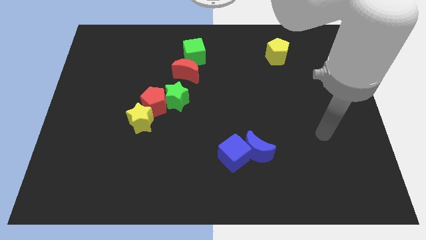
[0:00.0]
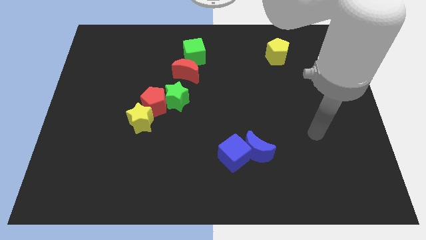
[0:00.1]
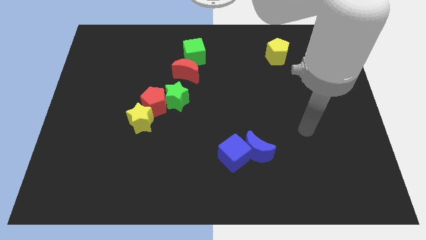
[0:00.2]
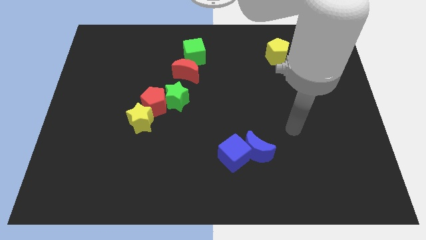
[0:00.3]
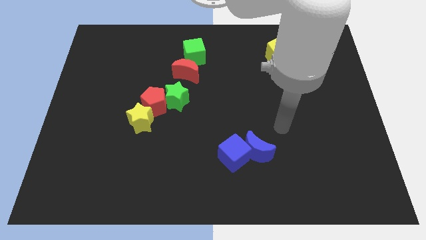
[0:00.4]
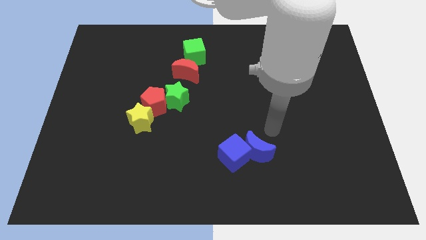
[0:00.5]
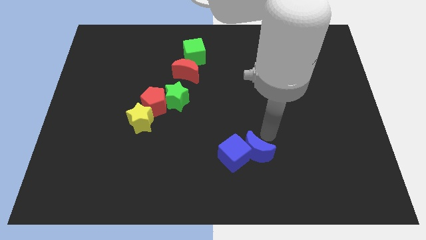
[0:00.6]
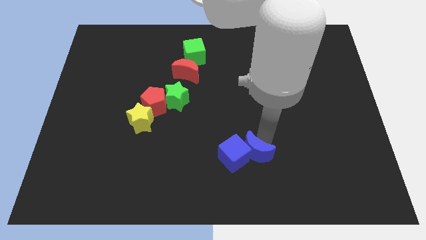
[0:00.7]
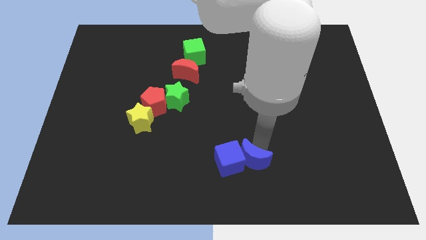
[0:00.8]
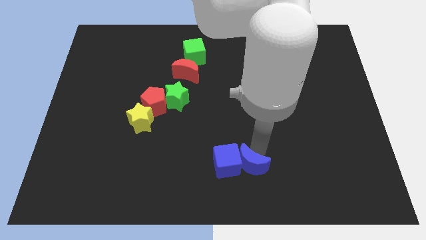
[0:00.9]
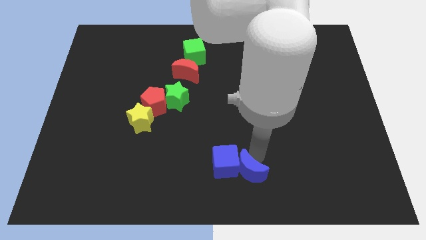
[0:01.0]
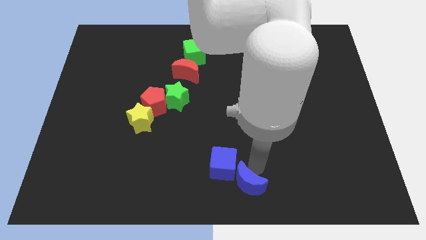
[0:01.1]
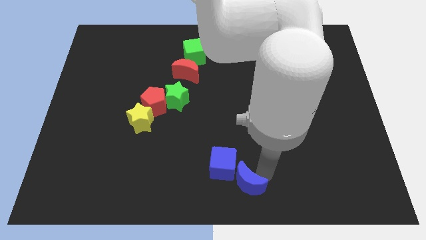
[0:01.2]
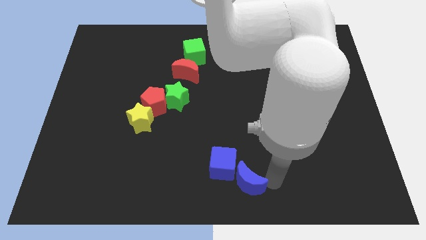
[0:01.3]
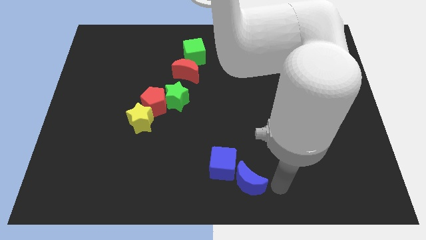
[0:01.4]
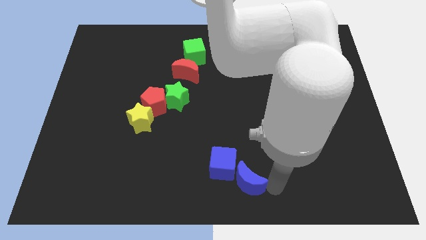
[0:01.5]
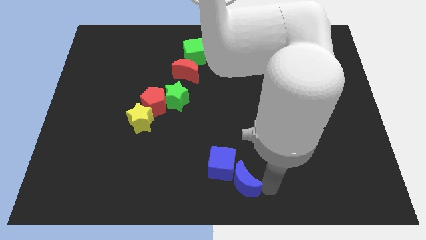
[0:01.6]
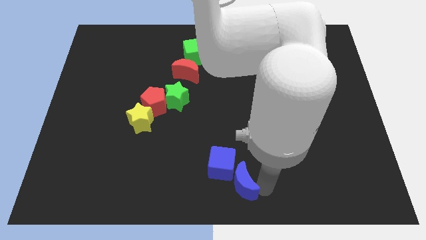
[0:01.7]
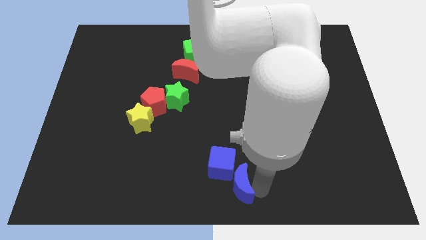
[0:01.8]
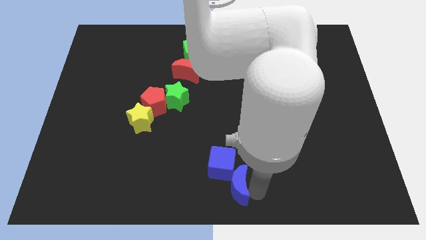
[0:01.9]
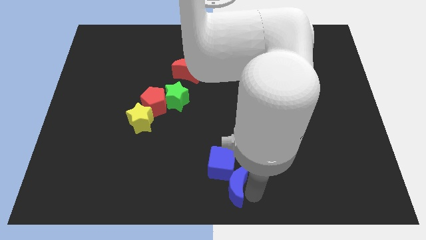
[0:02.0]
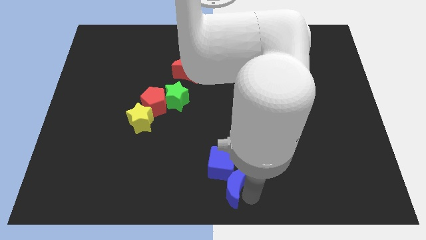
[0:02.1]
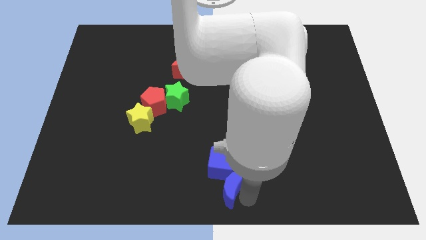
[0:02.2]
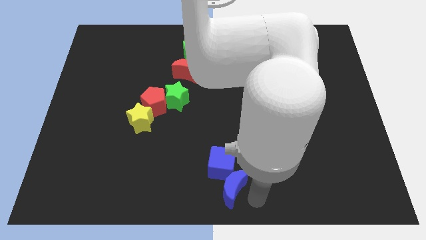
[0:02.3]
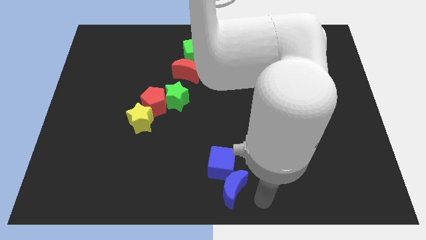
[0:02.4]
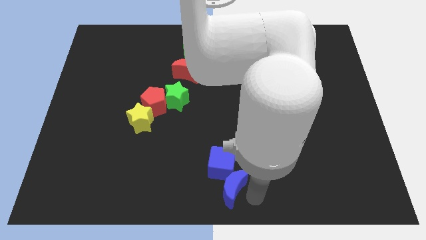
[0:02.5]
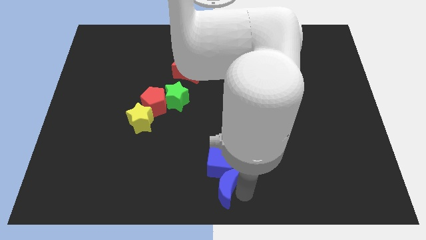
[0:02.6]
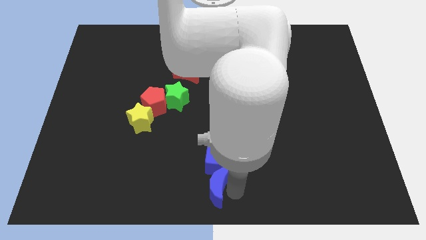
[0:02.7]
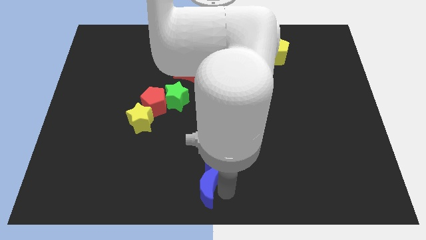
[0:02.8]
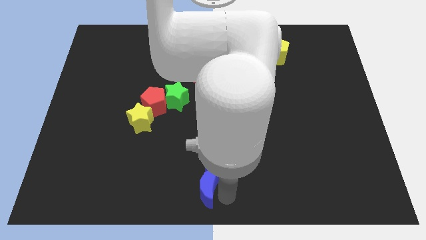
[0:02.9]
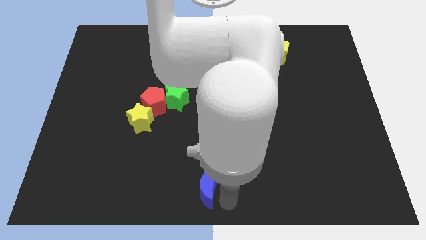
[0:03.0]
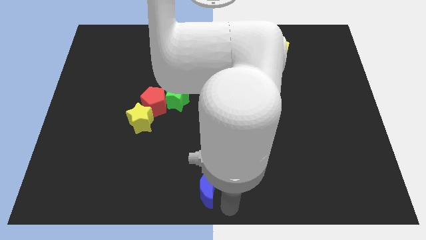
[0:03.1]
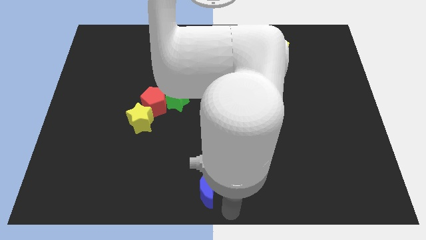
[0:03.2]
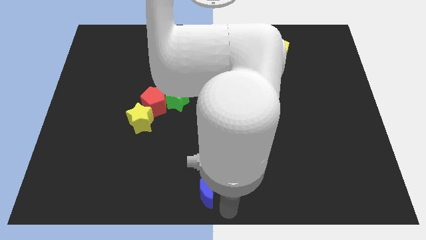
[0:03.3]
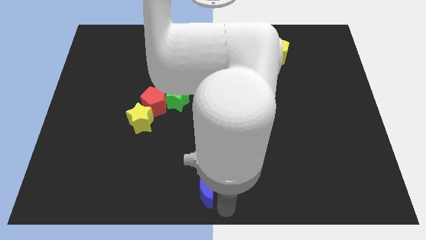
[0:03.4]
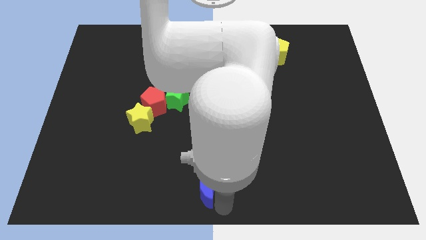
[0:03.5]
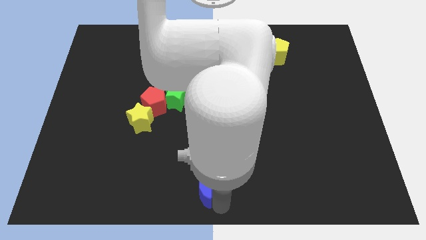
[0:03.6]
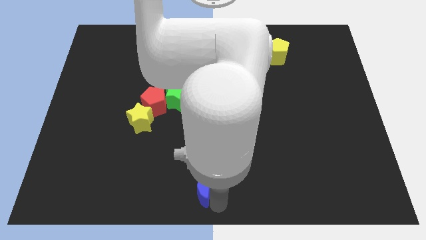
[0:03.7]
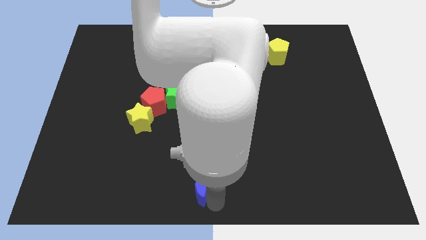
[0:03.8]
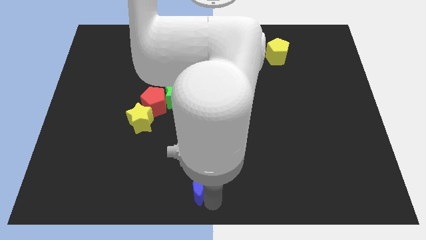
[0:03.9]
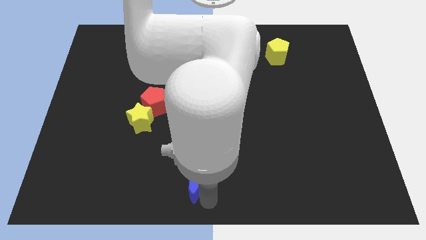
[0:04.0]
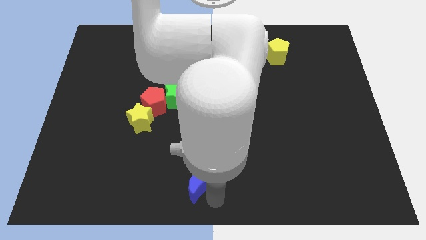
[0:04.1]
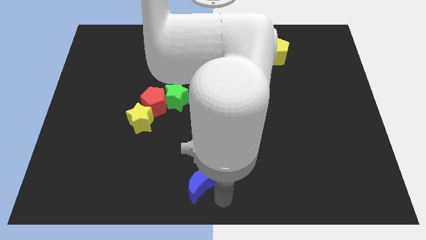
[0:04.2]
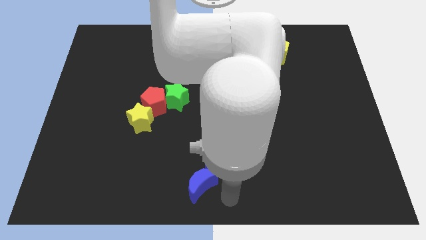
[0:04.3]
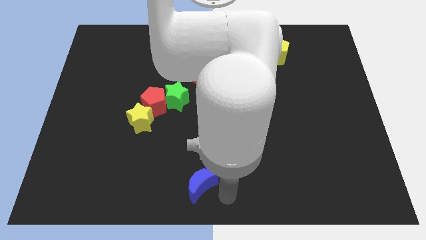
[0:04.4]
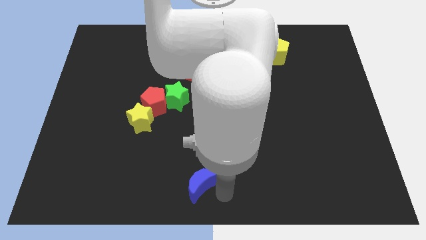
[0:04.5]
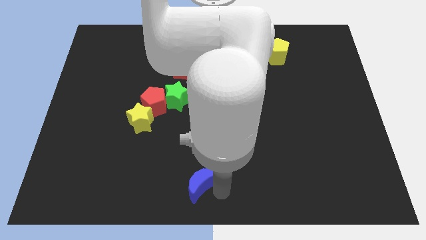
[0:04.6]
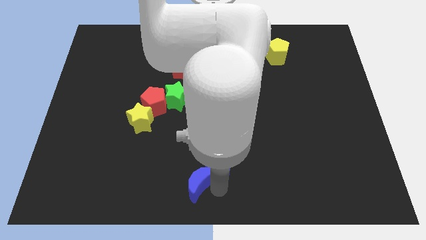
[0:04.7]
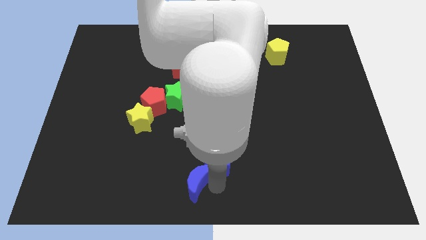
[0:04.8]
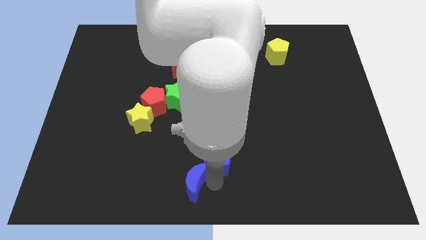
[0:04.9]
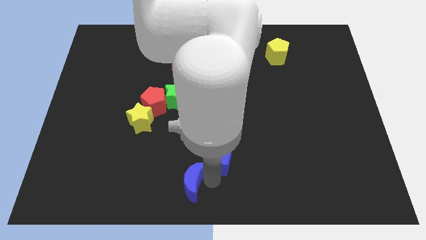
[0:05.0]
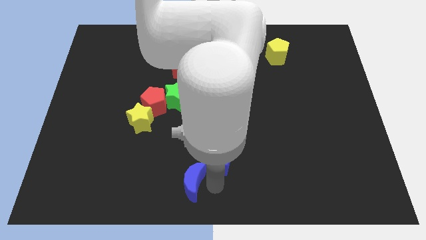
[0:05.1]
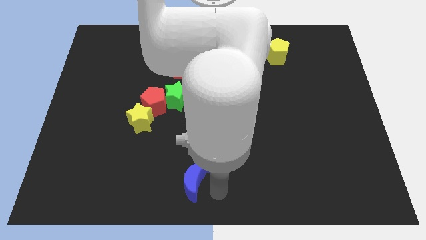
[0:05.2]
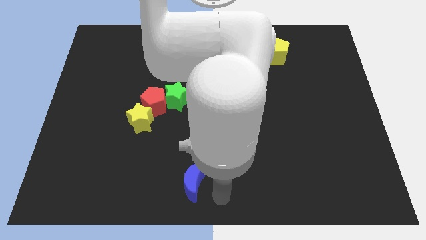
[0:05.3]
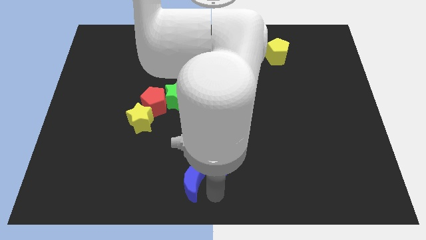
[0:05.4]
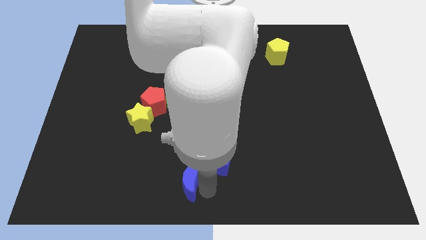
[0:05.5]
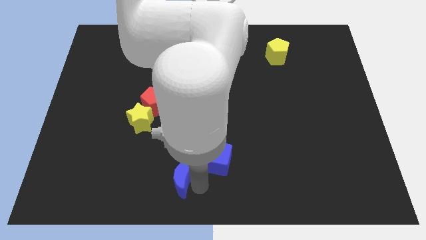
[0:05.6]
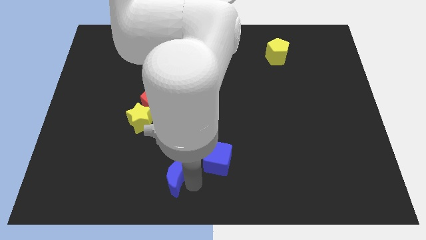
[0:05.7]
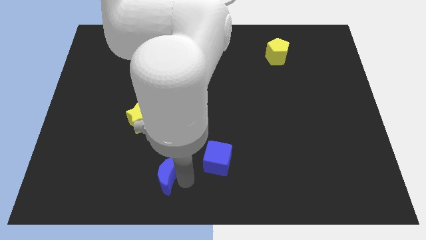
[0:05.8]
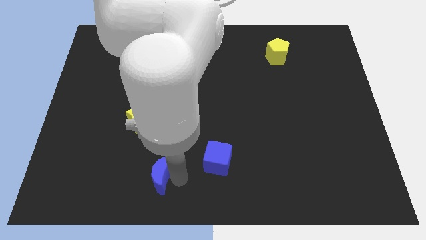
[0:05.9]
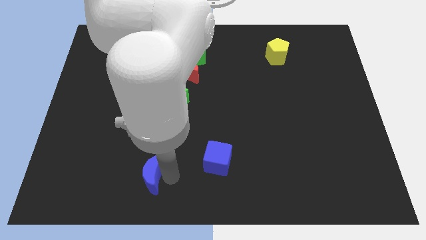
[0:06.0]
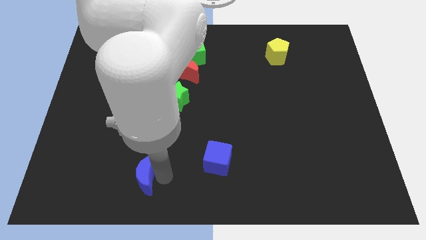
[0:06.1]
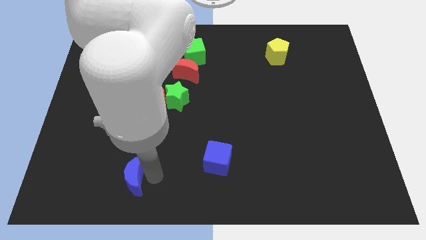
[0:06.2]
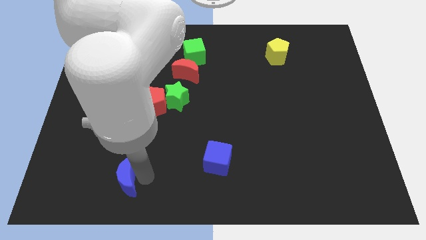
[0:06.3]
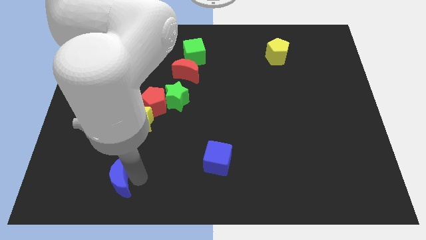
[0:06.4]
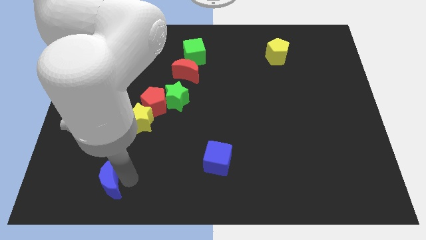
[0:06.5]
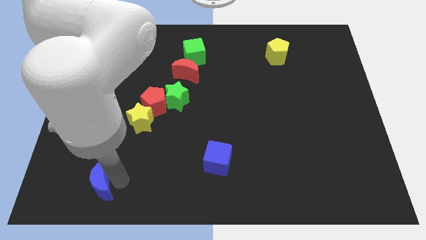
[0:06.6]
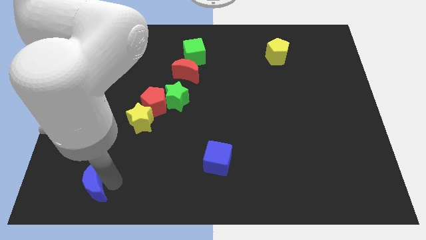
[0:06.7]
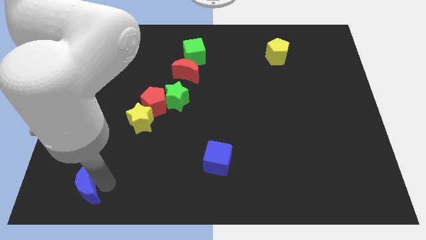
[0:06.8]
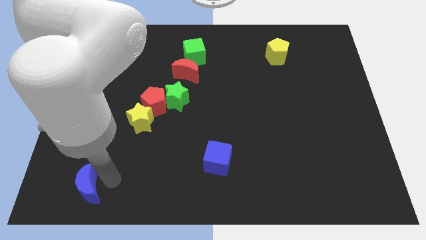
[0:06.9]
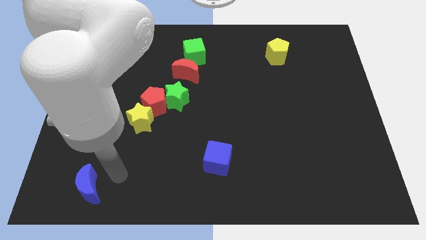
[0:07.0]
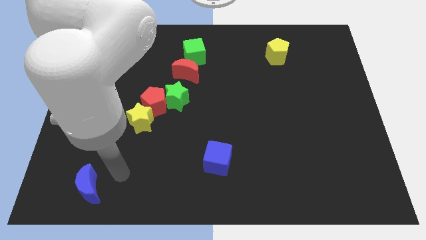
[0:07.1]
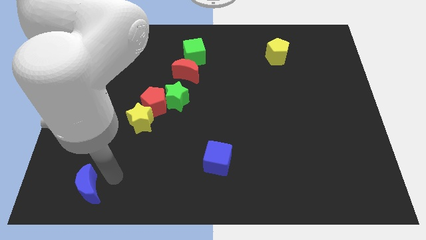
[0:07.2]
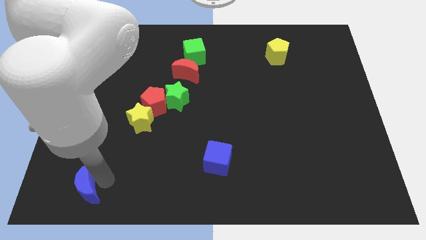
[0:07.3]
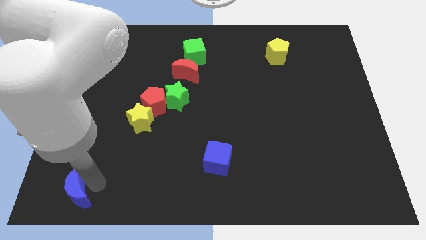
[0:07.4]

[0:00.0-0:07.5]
put the blue moon to the bottom left of the board

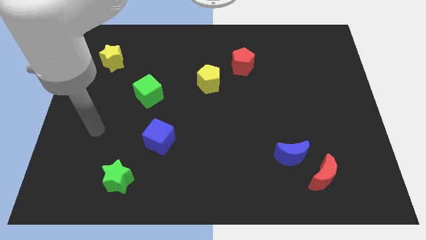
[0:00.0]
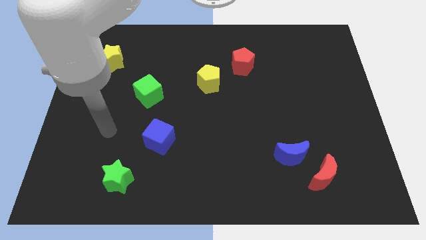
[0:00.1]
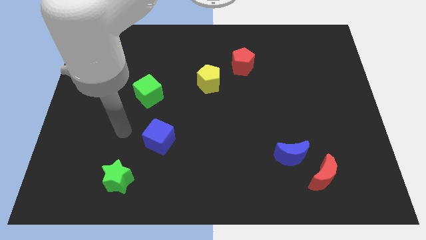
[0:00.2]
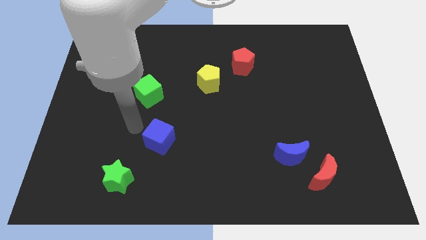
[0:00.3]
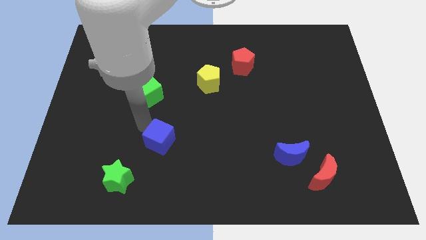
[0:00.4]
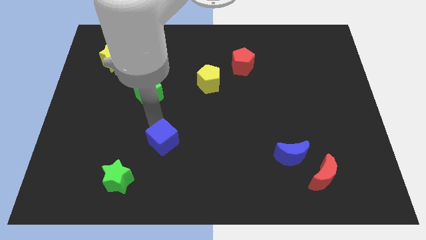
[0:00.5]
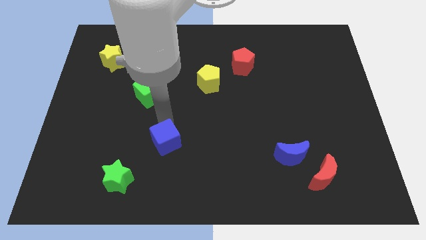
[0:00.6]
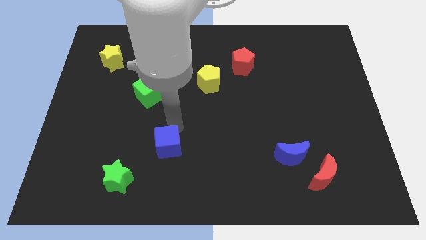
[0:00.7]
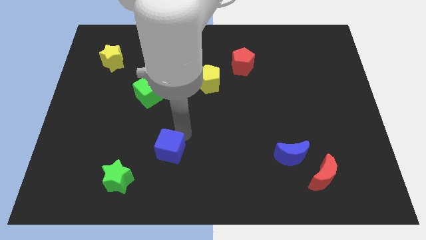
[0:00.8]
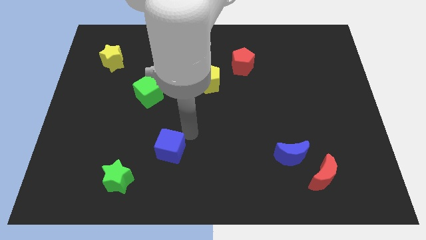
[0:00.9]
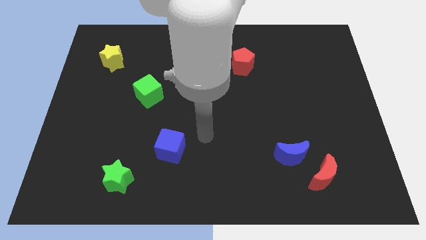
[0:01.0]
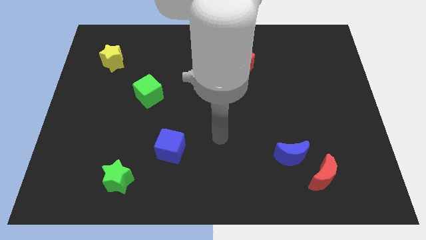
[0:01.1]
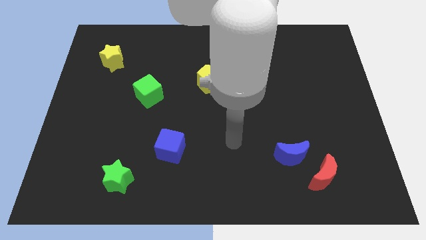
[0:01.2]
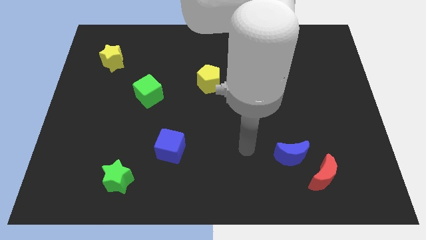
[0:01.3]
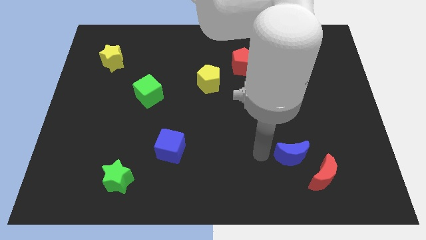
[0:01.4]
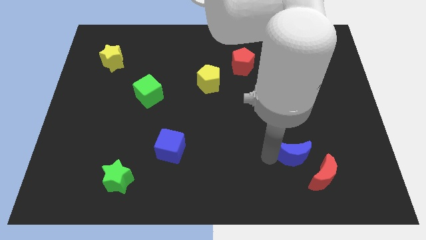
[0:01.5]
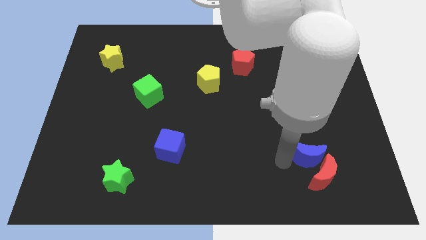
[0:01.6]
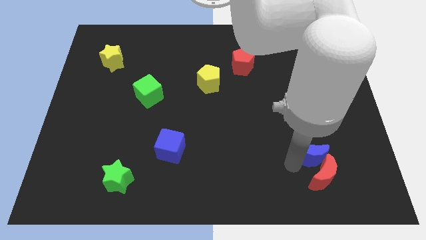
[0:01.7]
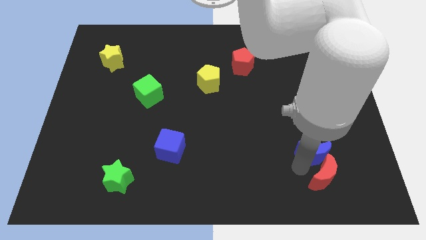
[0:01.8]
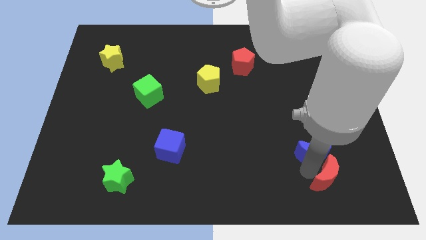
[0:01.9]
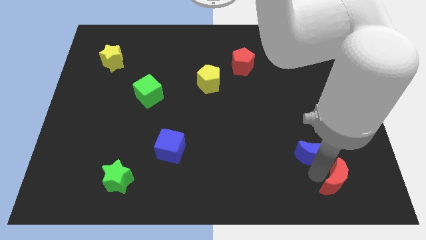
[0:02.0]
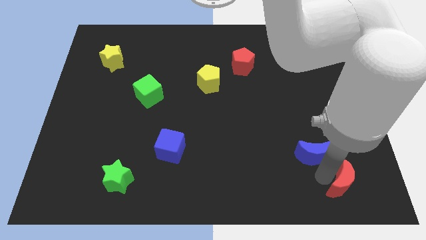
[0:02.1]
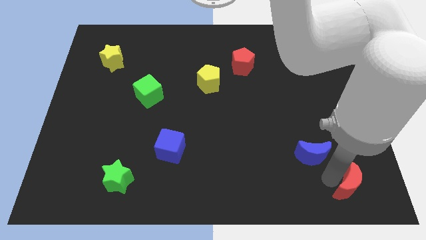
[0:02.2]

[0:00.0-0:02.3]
push the red moon to the bottom right
